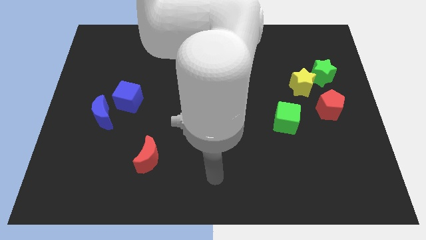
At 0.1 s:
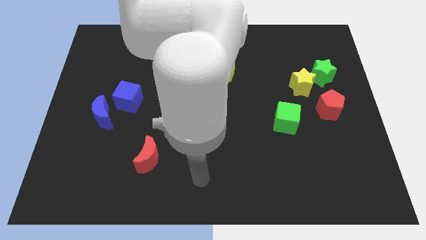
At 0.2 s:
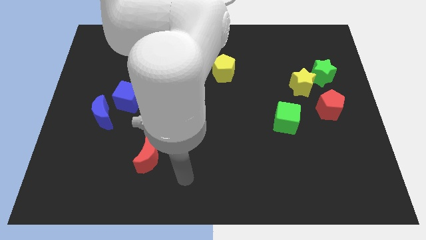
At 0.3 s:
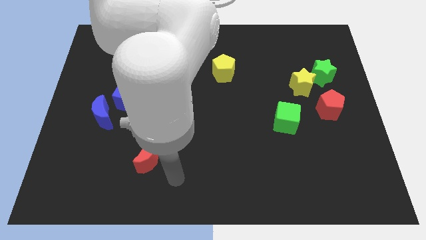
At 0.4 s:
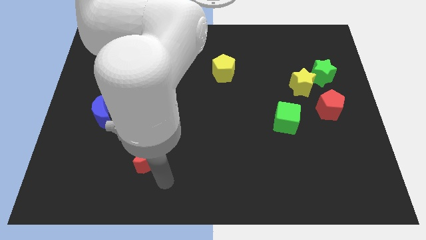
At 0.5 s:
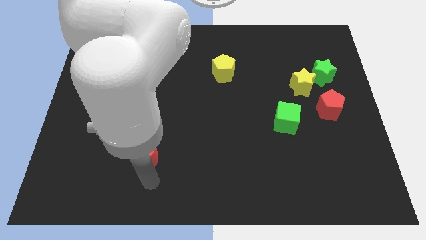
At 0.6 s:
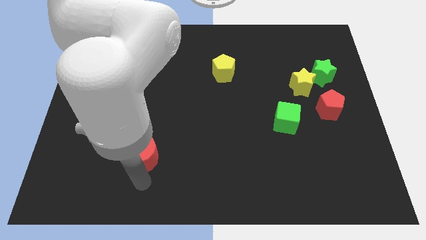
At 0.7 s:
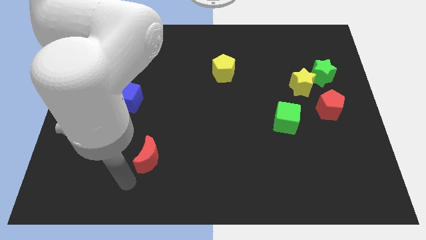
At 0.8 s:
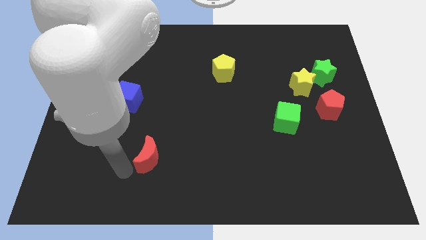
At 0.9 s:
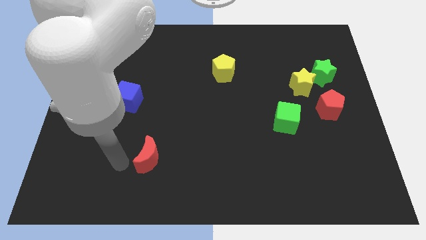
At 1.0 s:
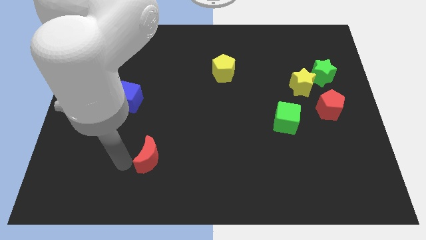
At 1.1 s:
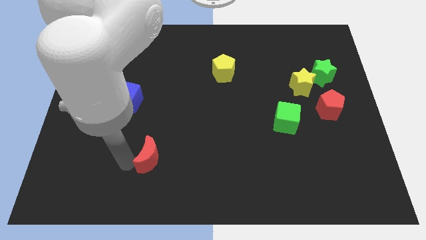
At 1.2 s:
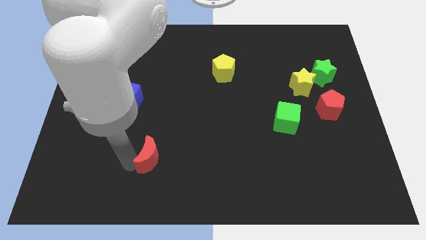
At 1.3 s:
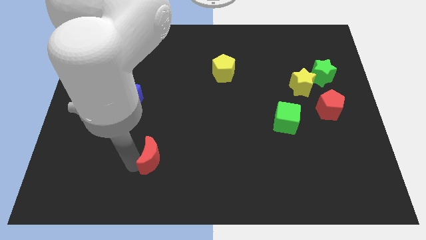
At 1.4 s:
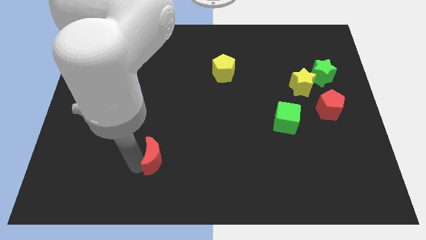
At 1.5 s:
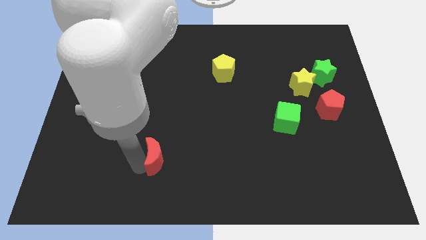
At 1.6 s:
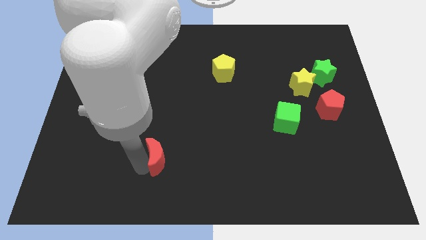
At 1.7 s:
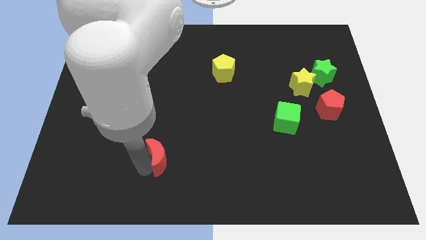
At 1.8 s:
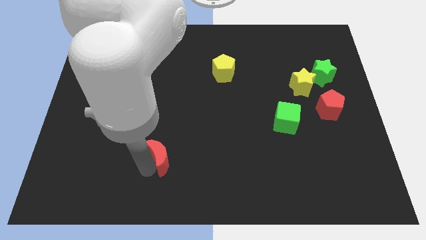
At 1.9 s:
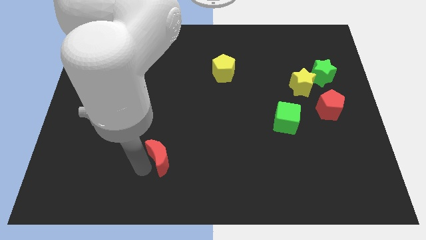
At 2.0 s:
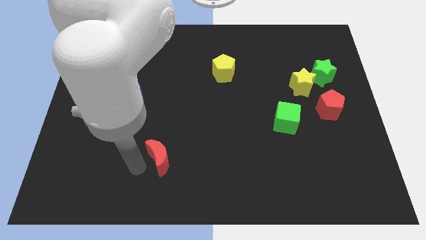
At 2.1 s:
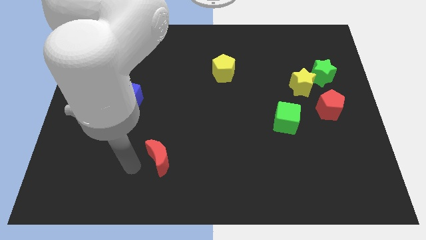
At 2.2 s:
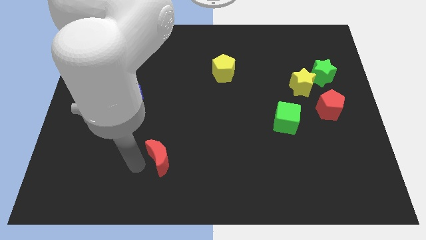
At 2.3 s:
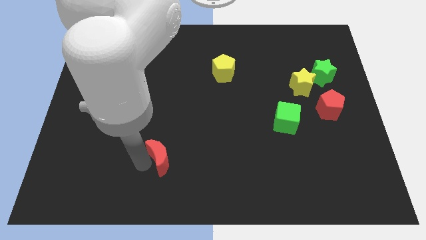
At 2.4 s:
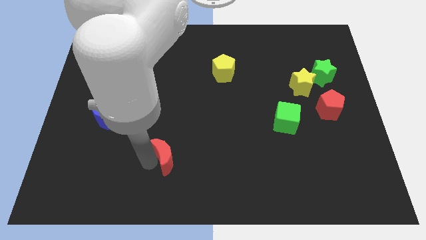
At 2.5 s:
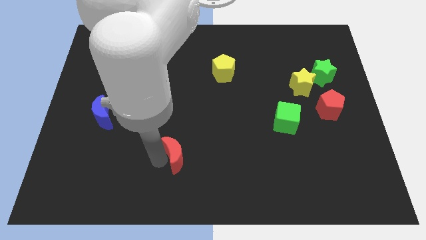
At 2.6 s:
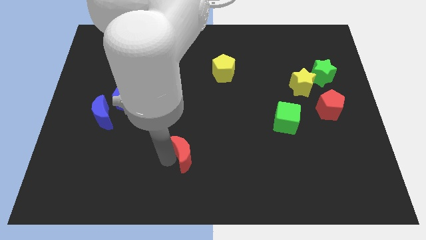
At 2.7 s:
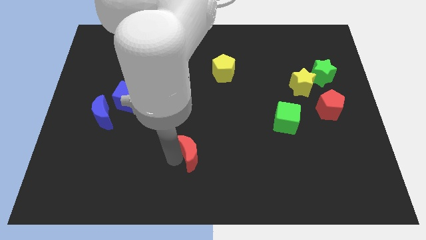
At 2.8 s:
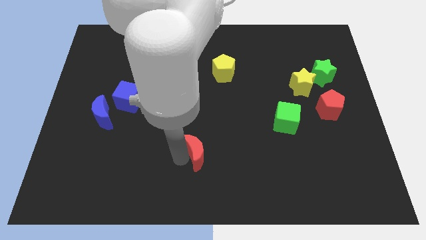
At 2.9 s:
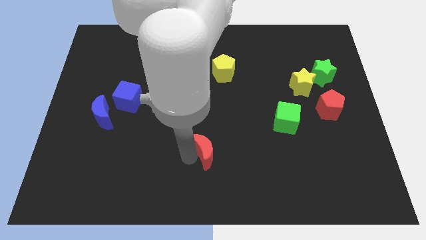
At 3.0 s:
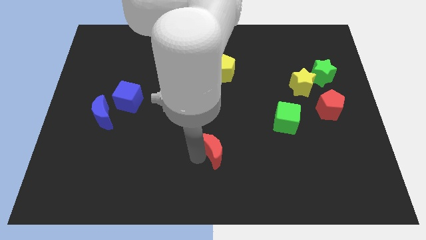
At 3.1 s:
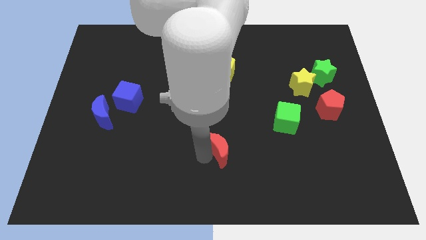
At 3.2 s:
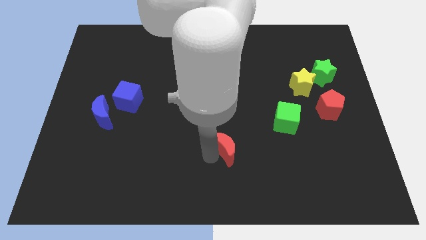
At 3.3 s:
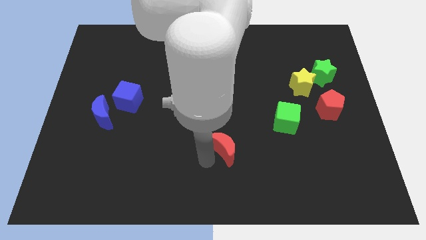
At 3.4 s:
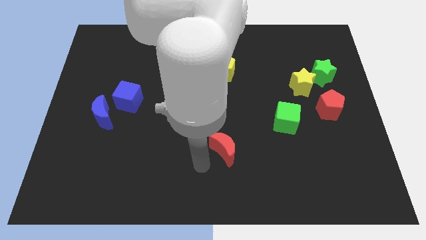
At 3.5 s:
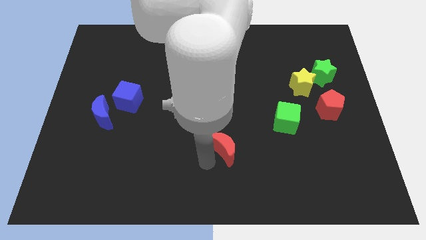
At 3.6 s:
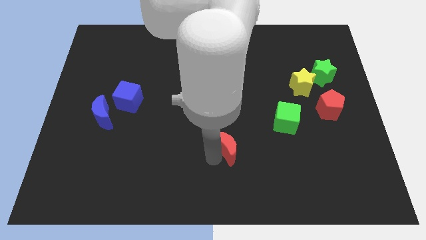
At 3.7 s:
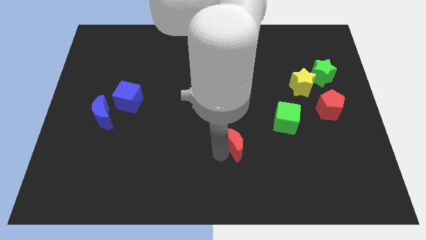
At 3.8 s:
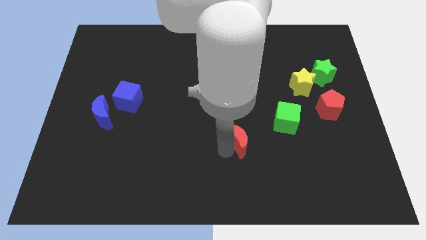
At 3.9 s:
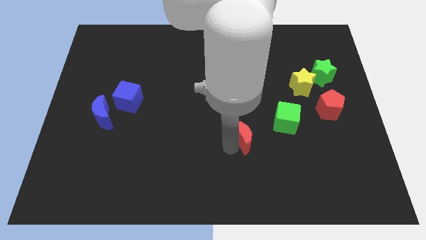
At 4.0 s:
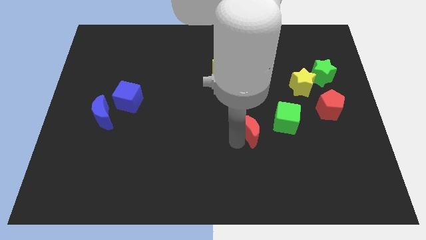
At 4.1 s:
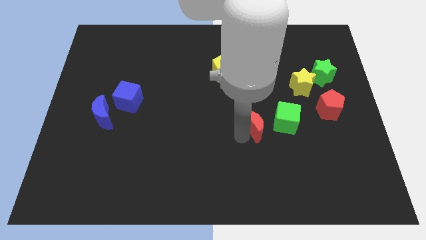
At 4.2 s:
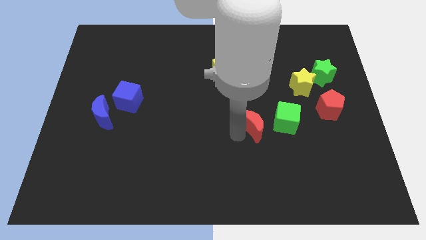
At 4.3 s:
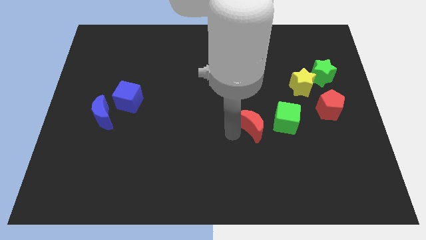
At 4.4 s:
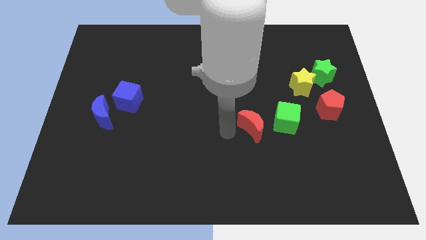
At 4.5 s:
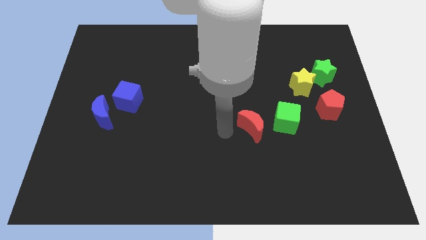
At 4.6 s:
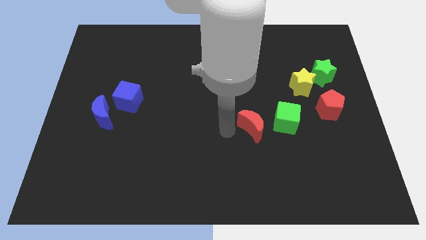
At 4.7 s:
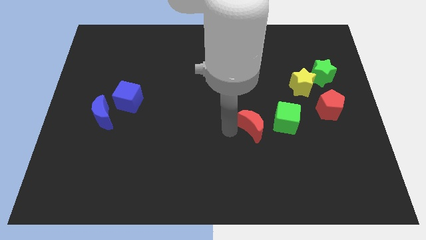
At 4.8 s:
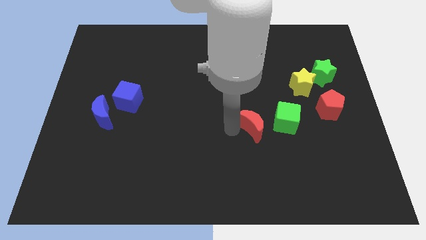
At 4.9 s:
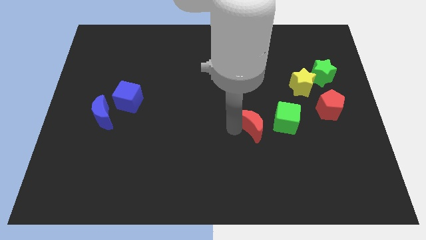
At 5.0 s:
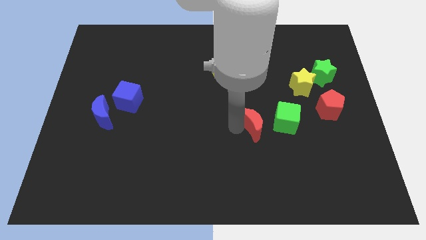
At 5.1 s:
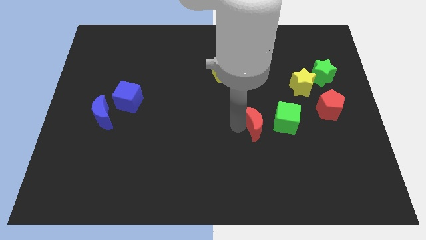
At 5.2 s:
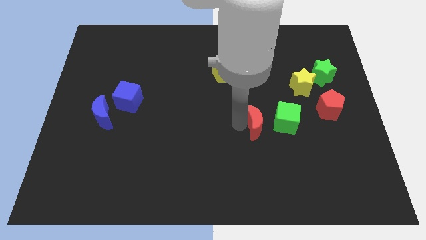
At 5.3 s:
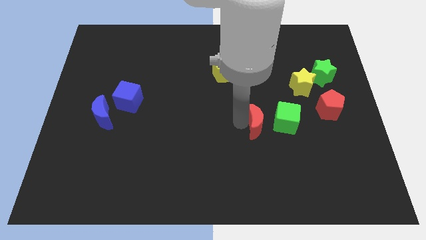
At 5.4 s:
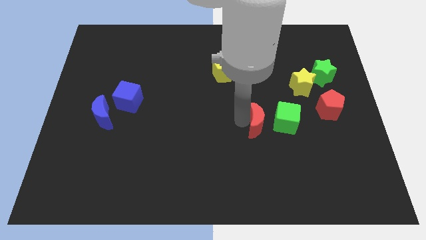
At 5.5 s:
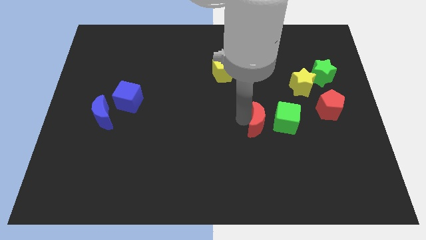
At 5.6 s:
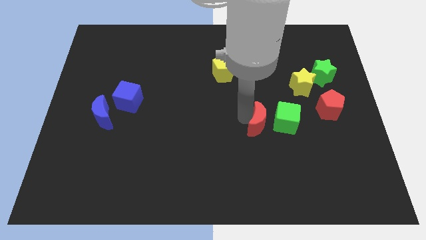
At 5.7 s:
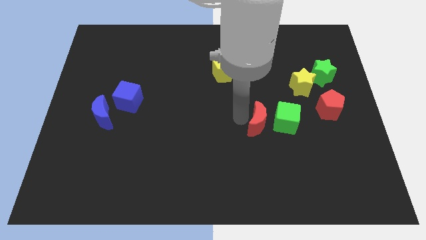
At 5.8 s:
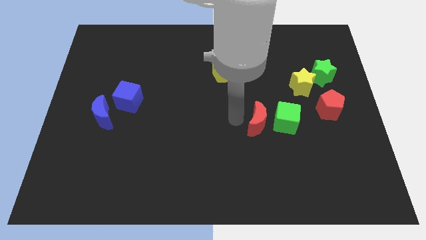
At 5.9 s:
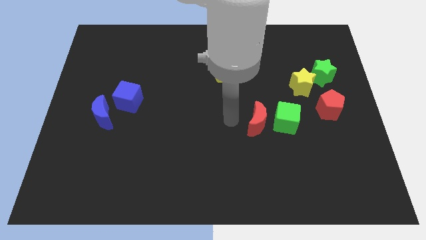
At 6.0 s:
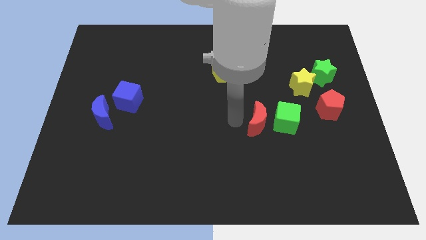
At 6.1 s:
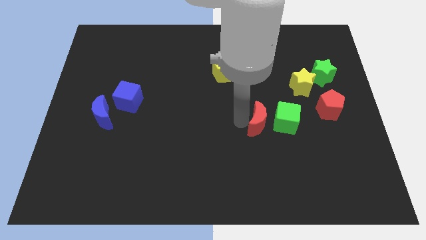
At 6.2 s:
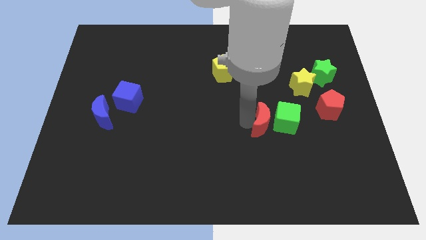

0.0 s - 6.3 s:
put the red moon close to the green cube

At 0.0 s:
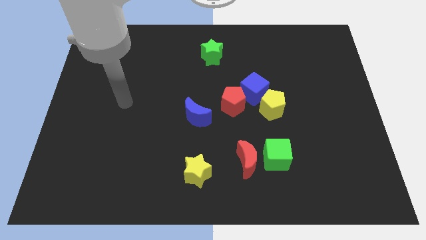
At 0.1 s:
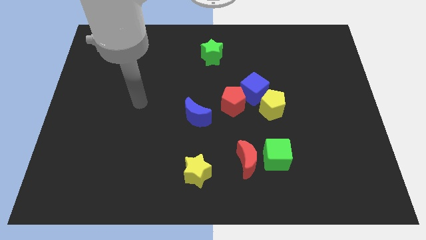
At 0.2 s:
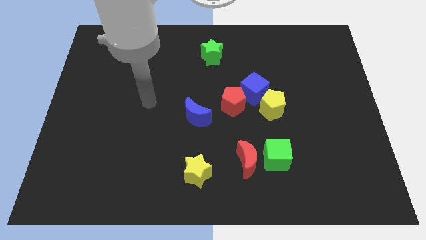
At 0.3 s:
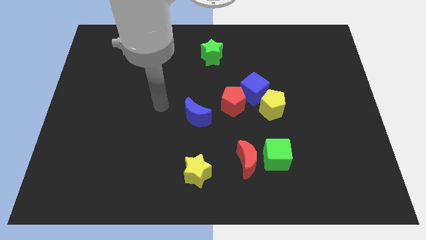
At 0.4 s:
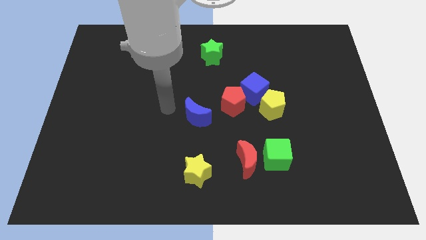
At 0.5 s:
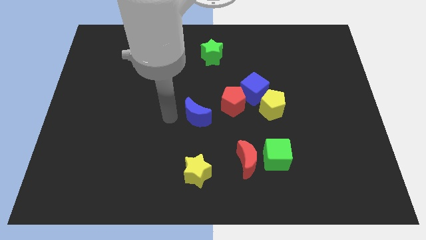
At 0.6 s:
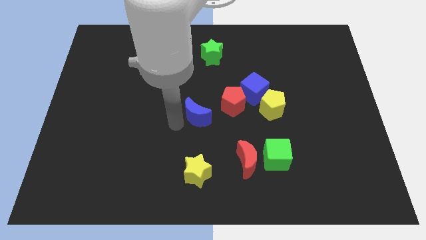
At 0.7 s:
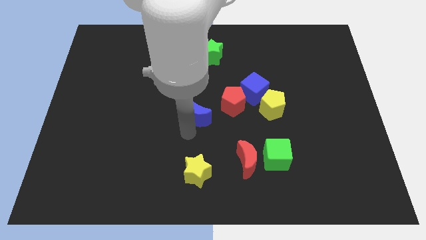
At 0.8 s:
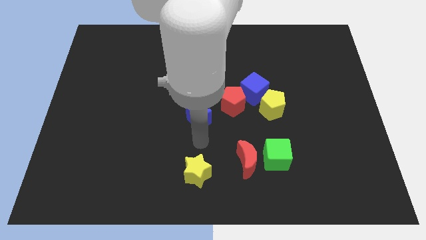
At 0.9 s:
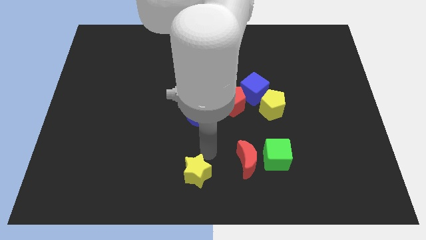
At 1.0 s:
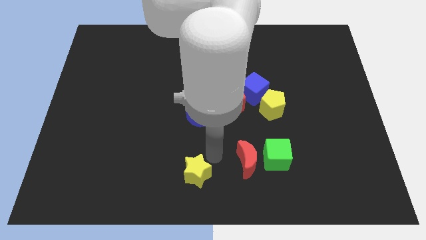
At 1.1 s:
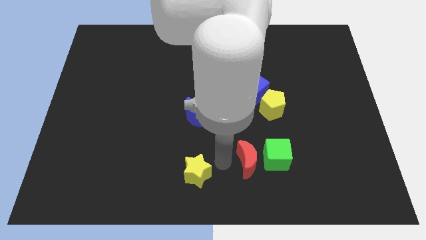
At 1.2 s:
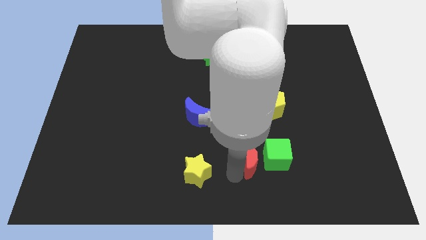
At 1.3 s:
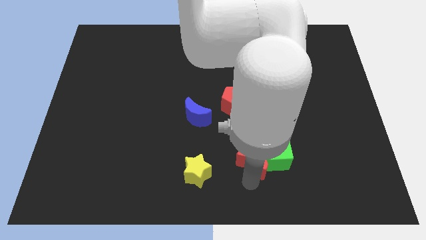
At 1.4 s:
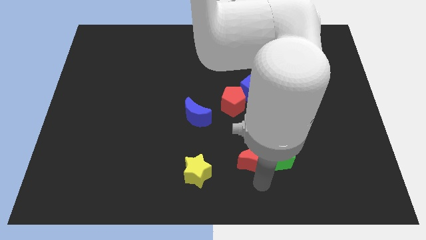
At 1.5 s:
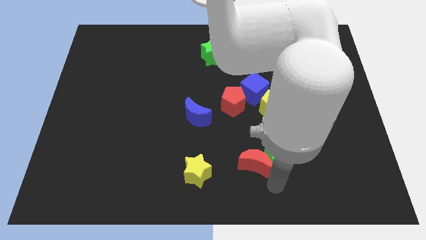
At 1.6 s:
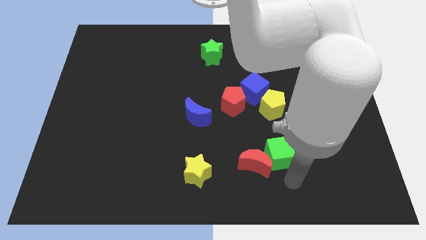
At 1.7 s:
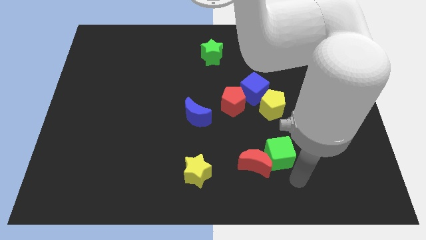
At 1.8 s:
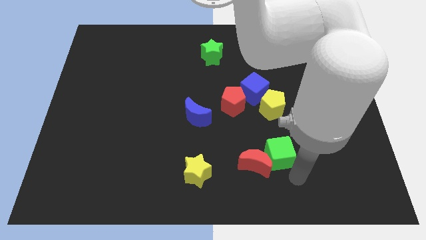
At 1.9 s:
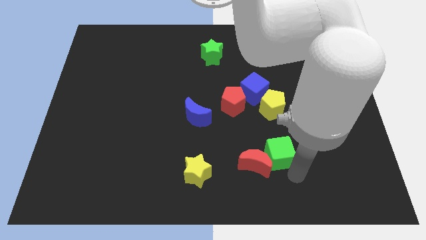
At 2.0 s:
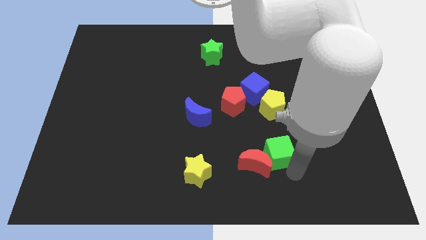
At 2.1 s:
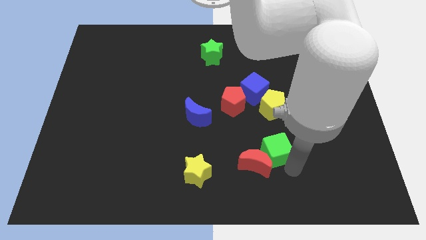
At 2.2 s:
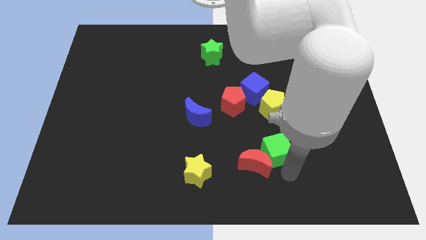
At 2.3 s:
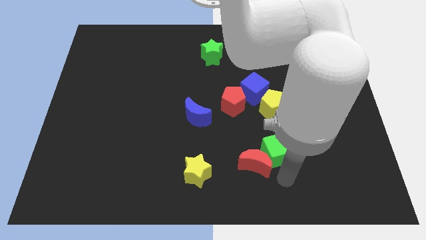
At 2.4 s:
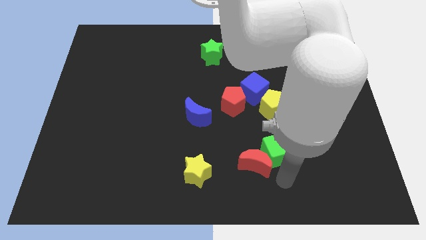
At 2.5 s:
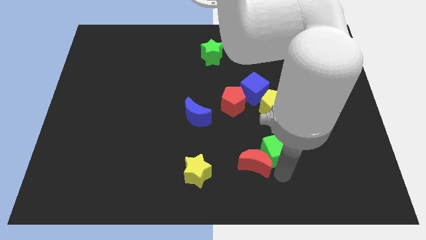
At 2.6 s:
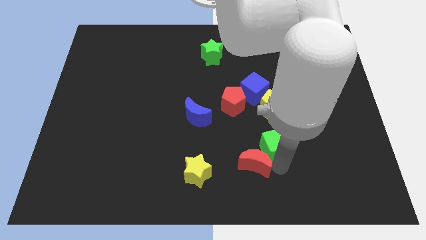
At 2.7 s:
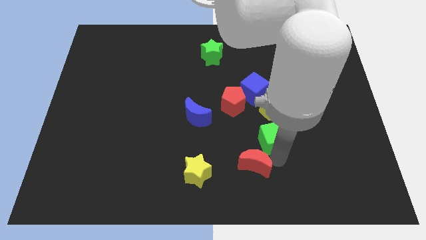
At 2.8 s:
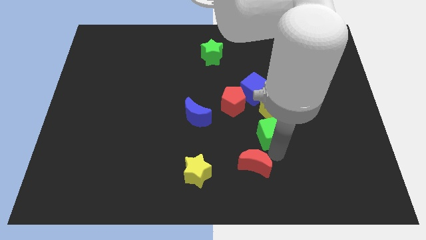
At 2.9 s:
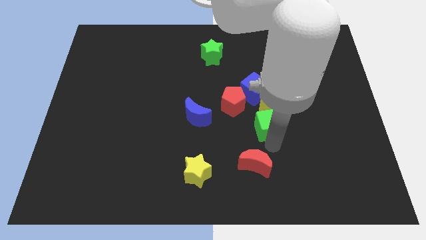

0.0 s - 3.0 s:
put the green cube towards the yellow pentagon
